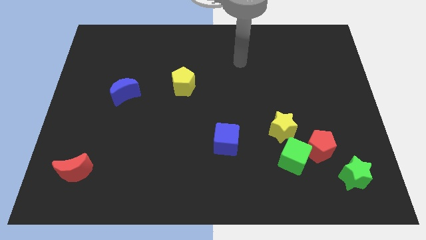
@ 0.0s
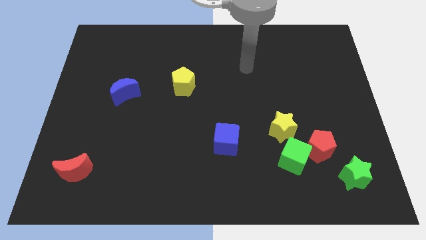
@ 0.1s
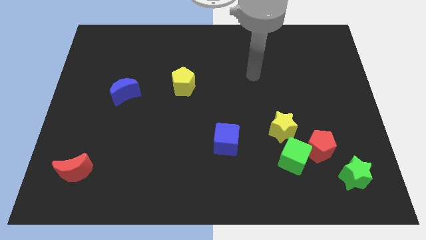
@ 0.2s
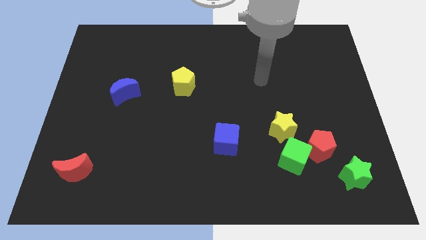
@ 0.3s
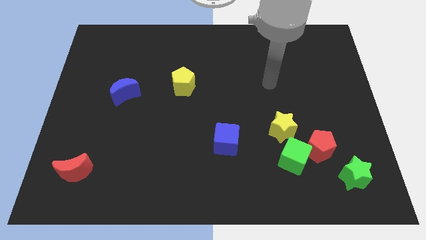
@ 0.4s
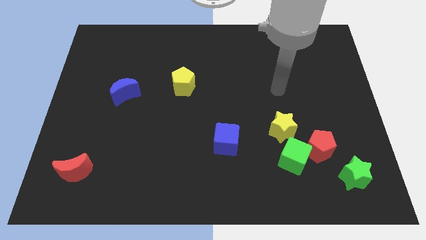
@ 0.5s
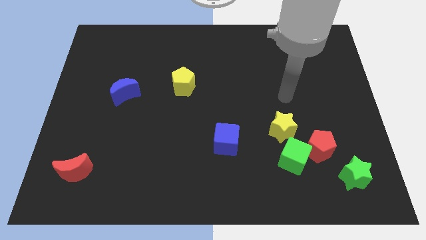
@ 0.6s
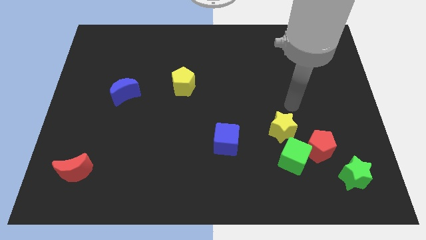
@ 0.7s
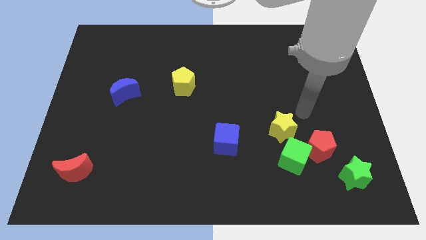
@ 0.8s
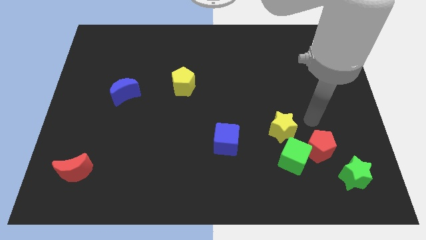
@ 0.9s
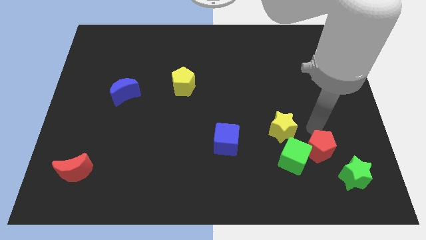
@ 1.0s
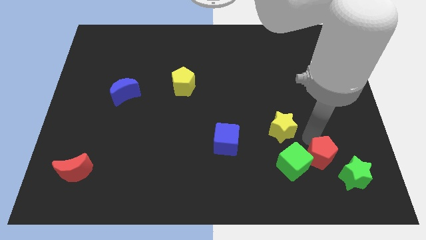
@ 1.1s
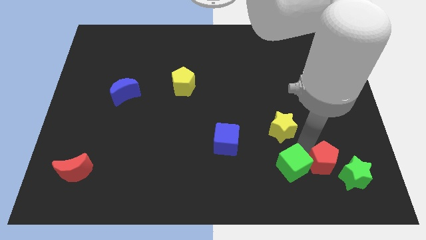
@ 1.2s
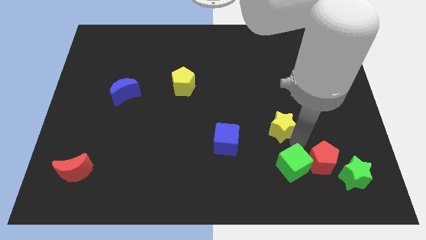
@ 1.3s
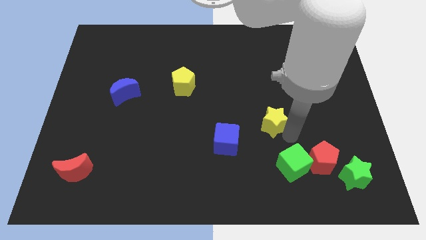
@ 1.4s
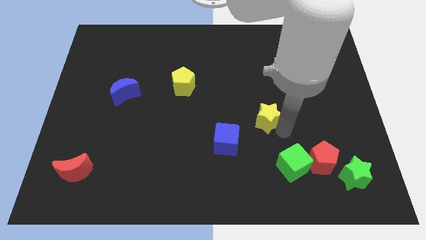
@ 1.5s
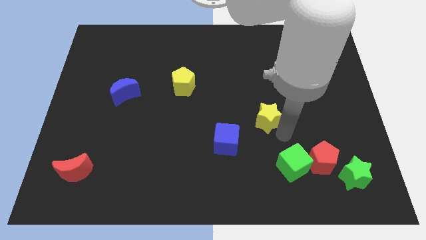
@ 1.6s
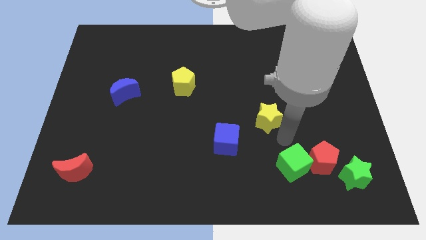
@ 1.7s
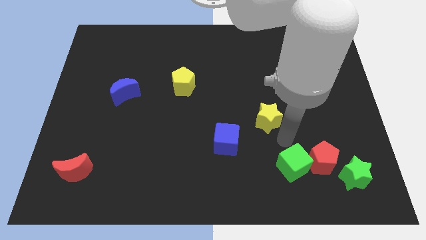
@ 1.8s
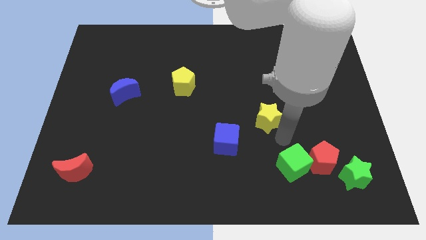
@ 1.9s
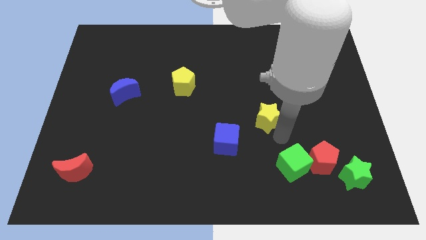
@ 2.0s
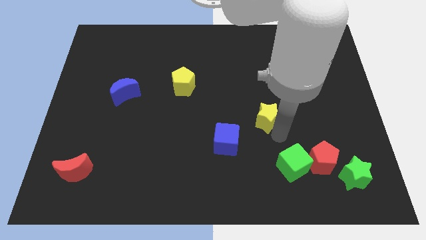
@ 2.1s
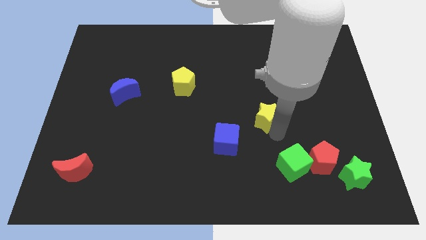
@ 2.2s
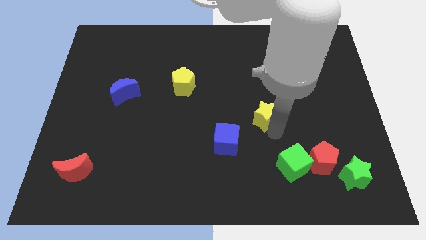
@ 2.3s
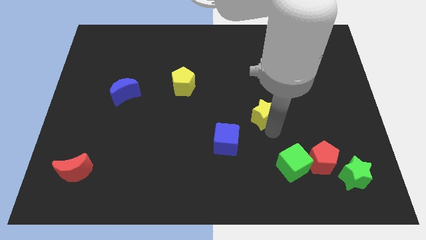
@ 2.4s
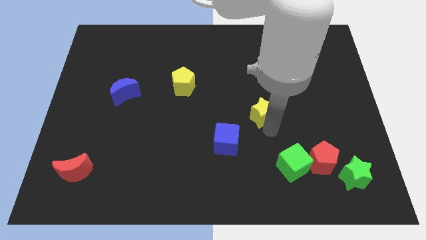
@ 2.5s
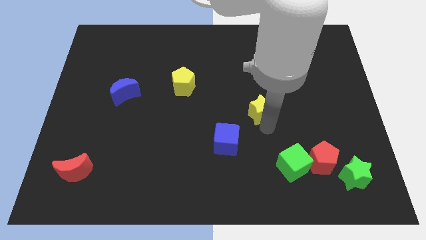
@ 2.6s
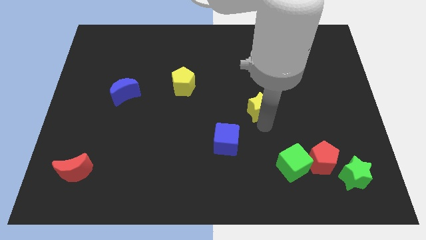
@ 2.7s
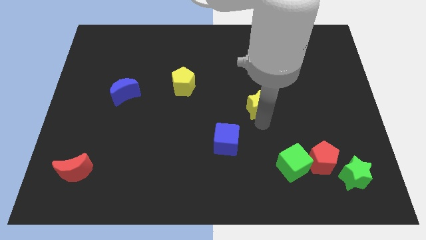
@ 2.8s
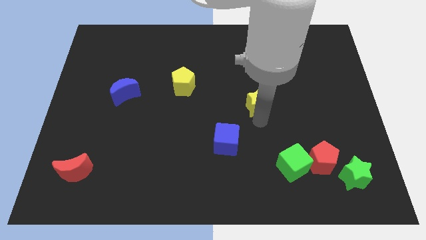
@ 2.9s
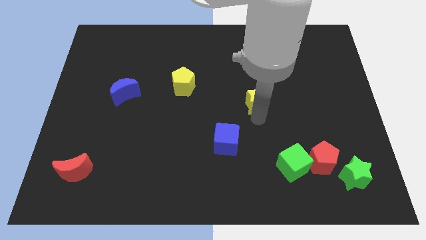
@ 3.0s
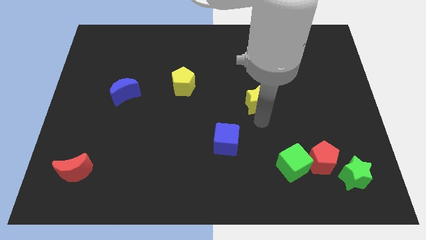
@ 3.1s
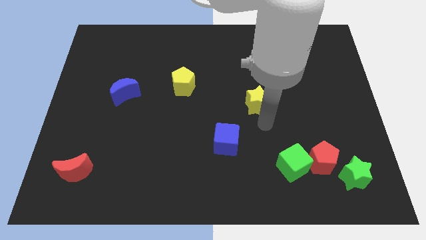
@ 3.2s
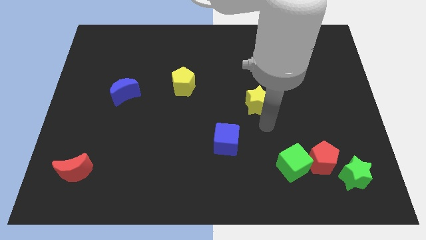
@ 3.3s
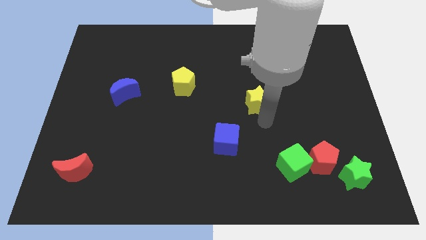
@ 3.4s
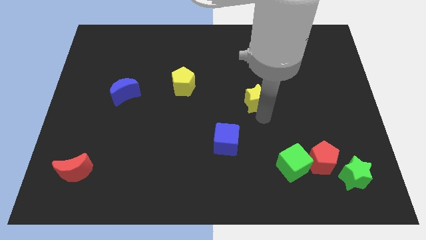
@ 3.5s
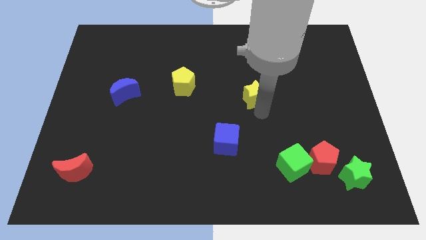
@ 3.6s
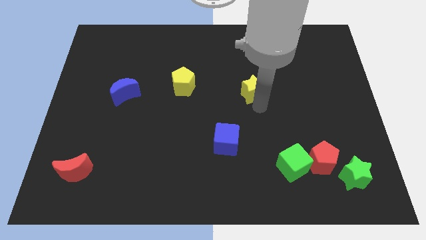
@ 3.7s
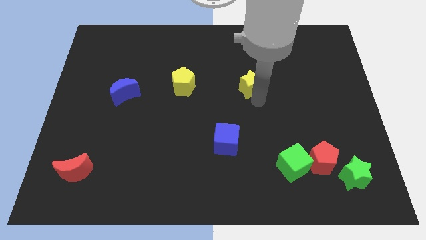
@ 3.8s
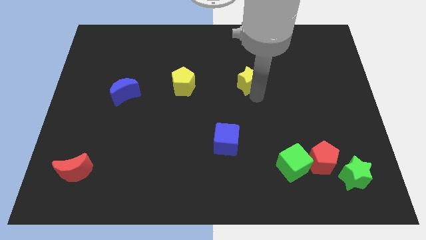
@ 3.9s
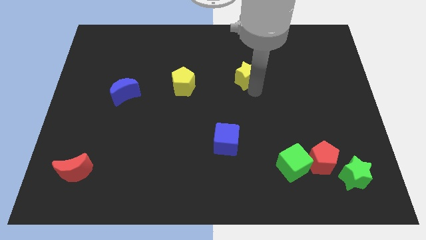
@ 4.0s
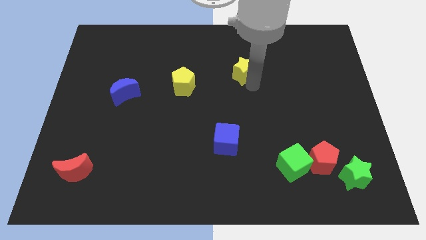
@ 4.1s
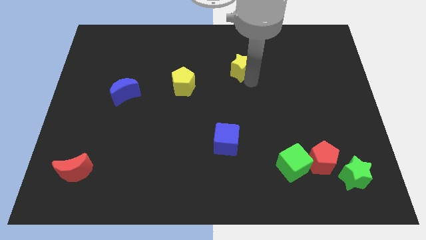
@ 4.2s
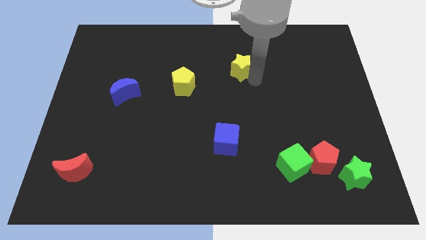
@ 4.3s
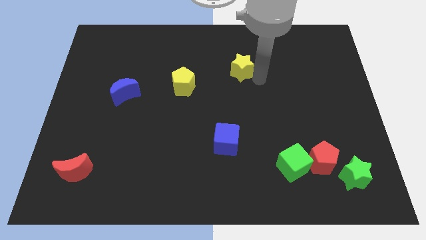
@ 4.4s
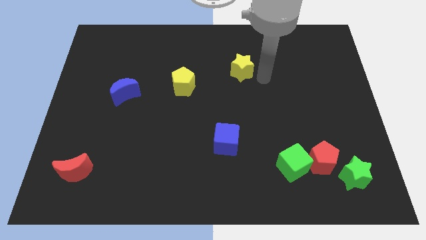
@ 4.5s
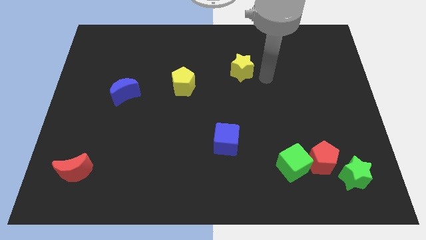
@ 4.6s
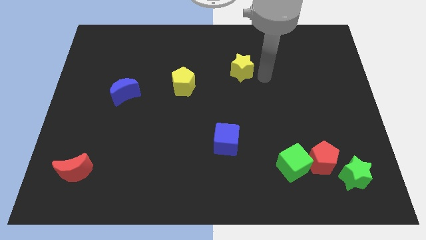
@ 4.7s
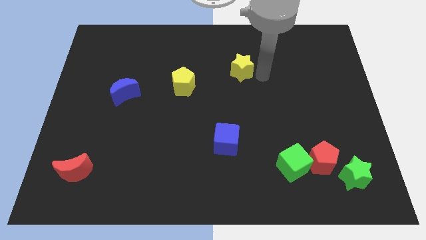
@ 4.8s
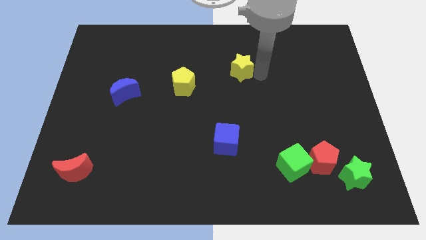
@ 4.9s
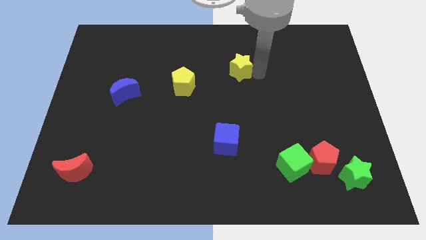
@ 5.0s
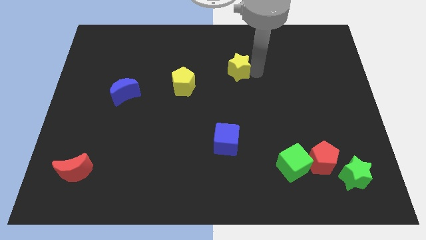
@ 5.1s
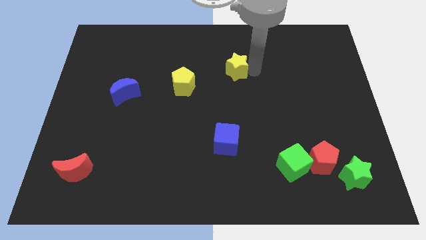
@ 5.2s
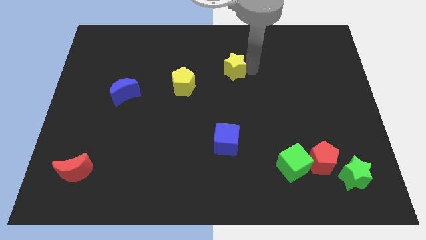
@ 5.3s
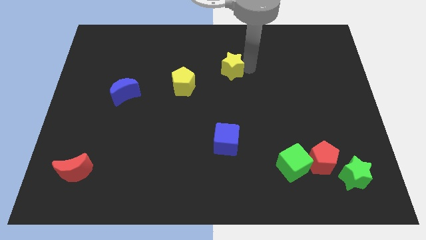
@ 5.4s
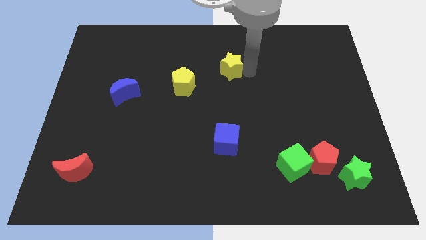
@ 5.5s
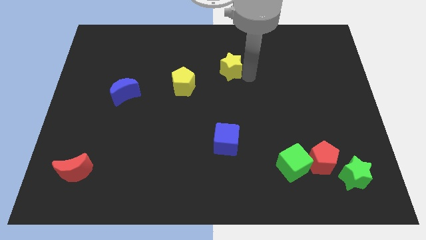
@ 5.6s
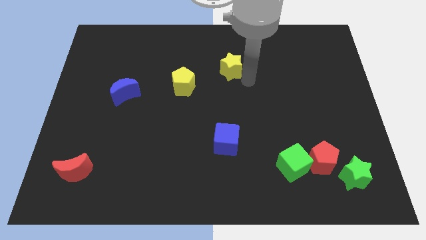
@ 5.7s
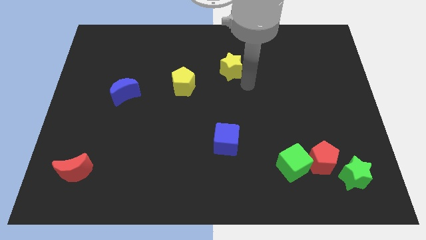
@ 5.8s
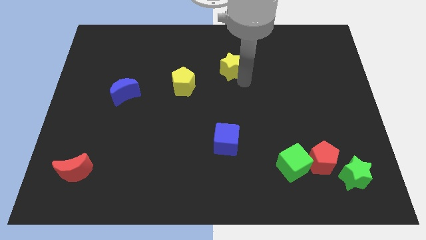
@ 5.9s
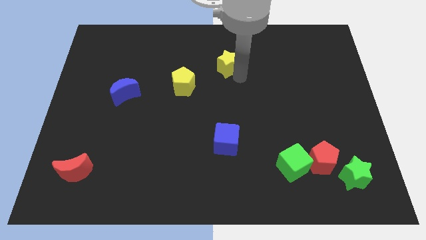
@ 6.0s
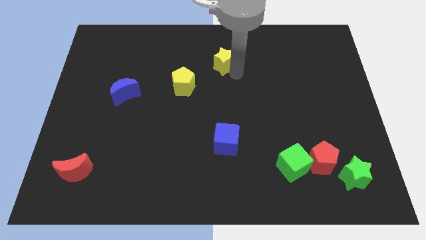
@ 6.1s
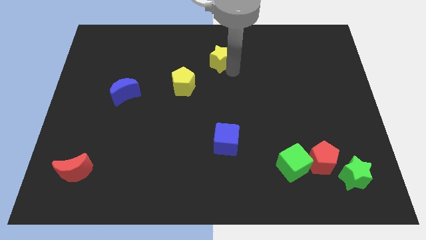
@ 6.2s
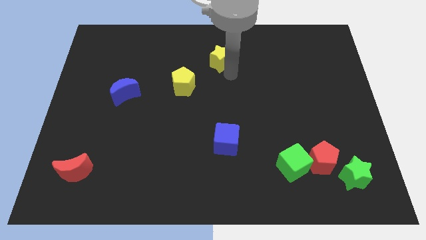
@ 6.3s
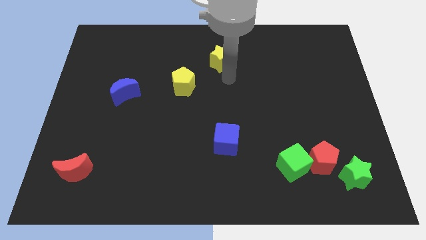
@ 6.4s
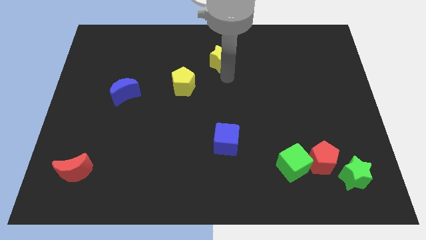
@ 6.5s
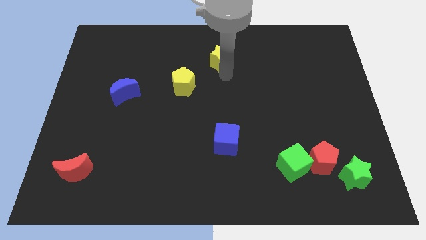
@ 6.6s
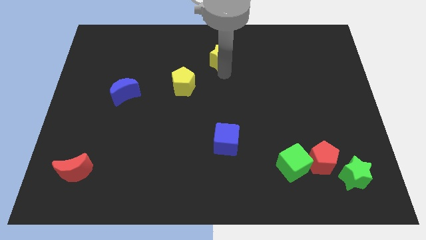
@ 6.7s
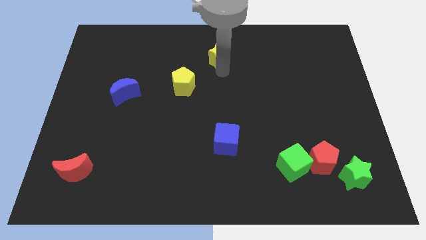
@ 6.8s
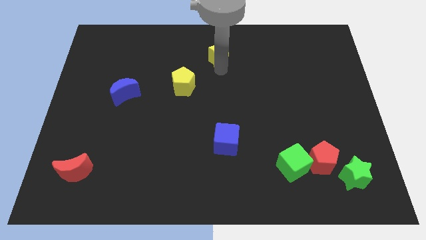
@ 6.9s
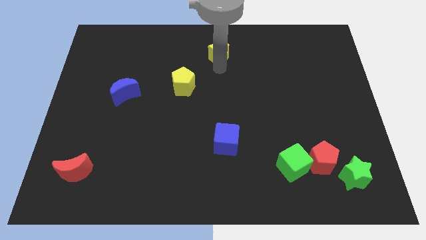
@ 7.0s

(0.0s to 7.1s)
move the yellow star to the top side

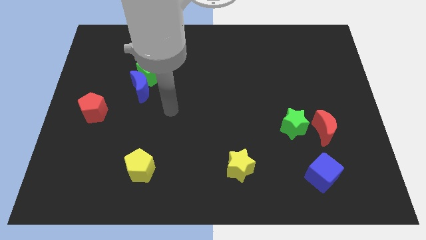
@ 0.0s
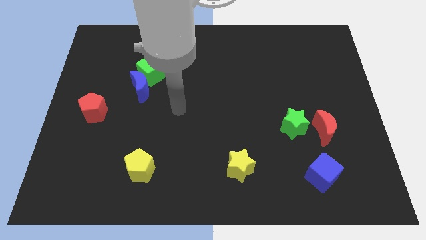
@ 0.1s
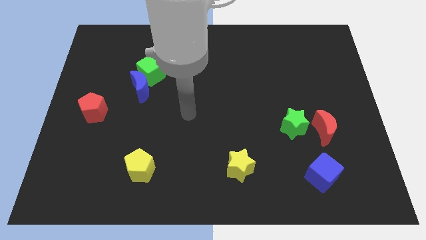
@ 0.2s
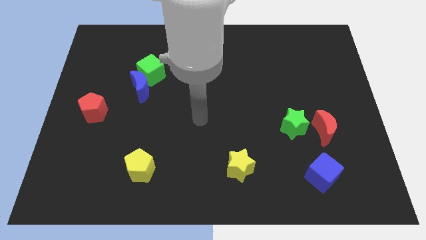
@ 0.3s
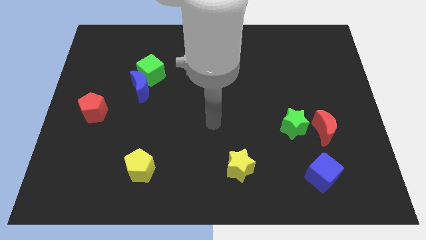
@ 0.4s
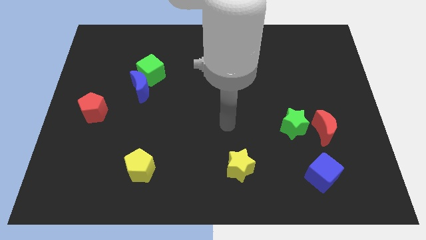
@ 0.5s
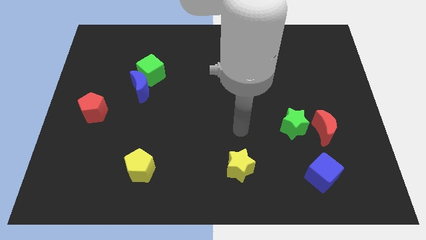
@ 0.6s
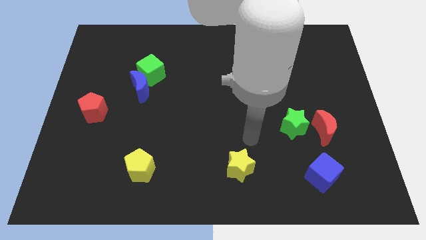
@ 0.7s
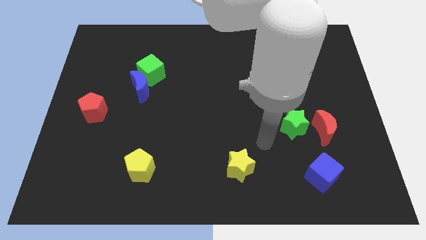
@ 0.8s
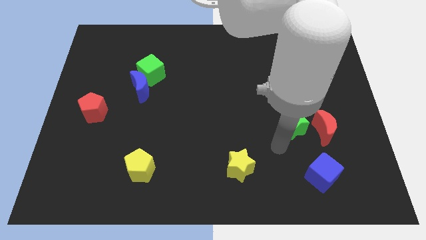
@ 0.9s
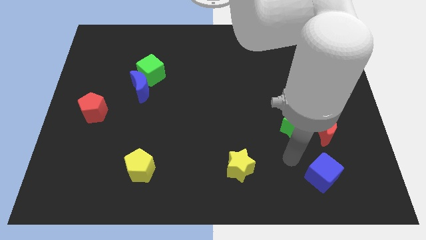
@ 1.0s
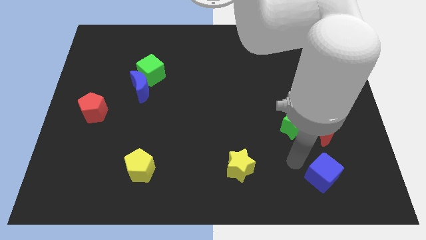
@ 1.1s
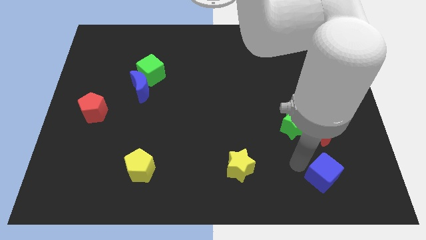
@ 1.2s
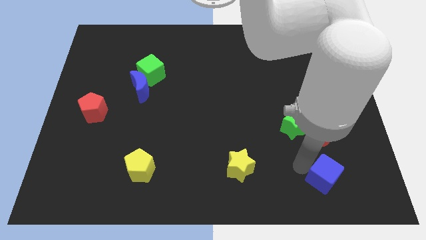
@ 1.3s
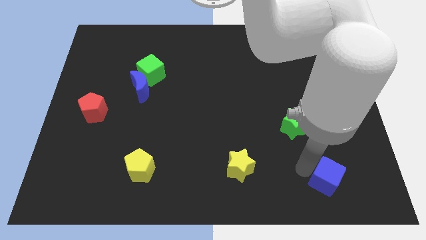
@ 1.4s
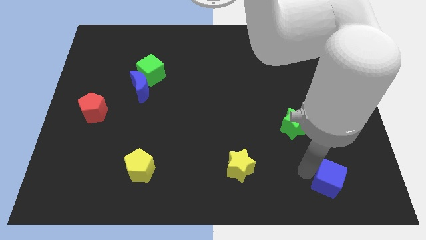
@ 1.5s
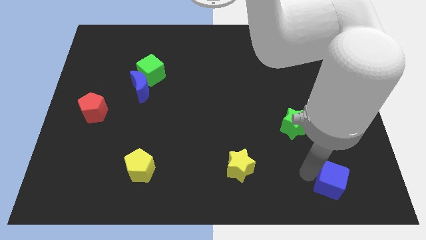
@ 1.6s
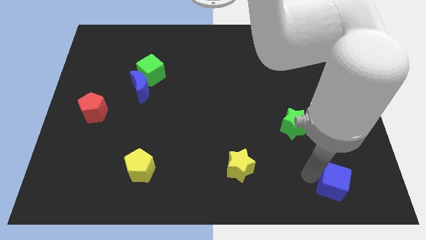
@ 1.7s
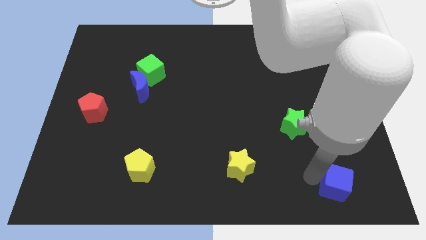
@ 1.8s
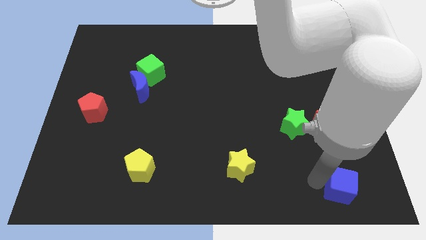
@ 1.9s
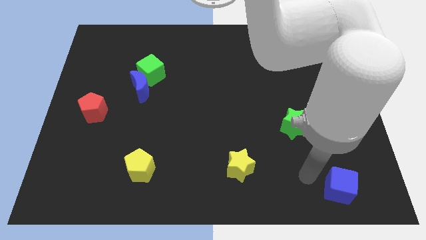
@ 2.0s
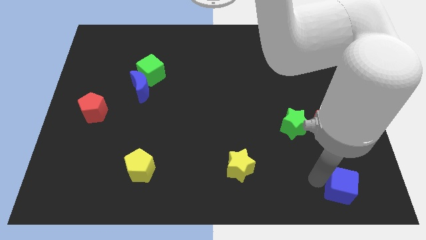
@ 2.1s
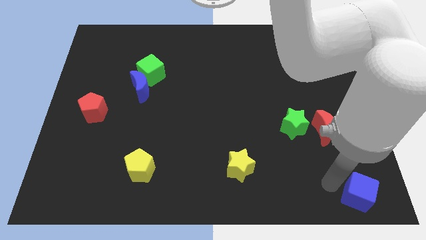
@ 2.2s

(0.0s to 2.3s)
push the blue cube to the lower right corner
